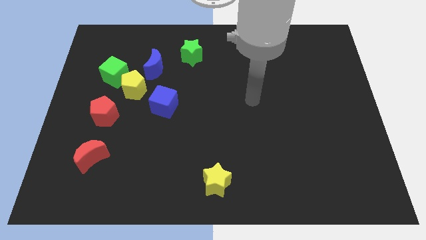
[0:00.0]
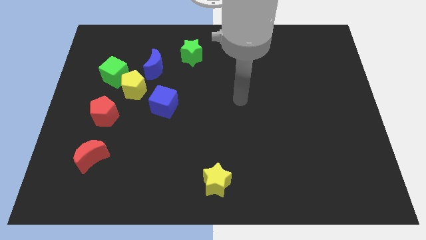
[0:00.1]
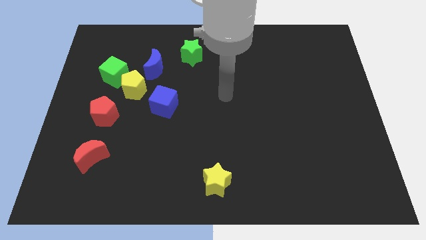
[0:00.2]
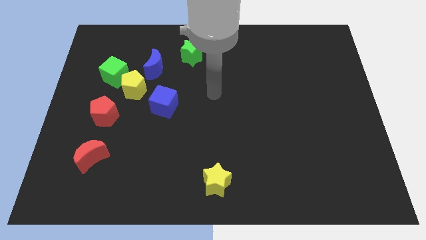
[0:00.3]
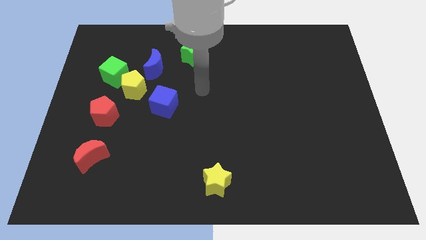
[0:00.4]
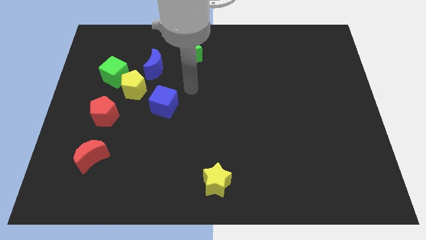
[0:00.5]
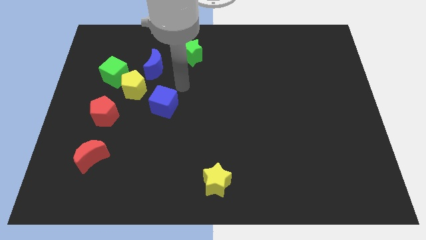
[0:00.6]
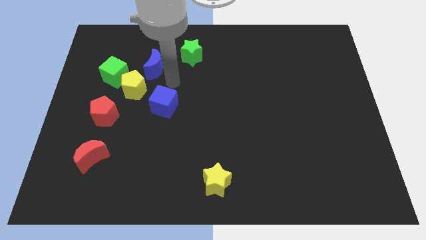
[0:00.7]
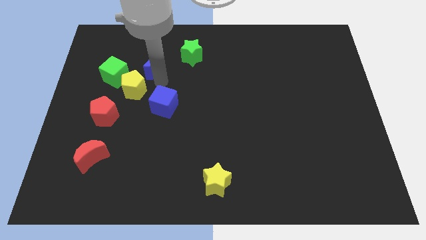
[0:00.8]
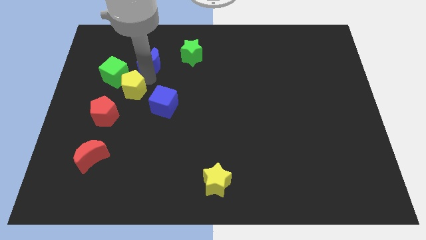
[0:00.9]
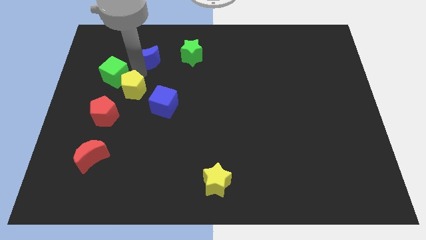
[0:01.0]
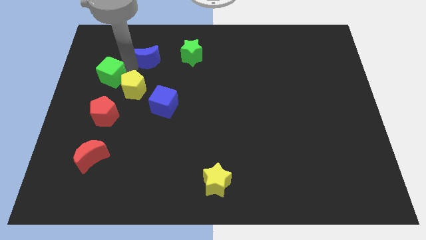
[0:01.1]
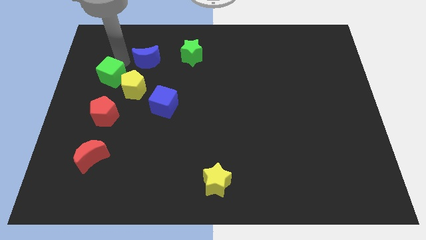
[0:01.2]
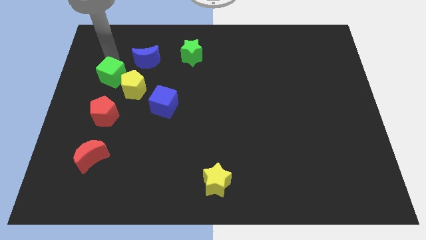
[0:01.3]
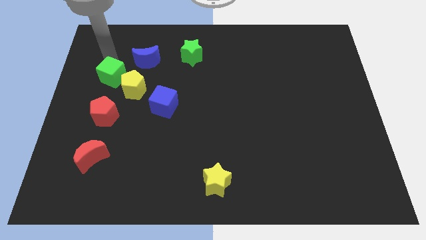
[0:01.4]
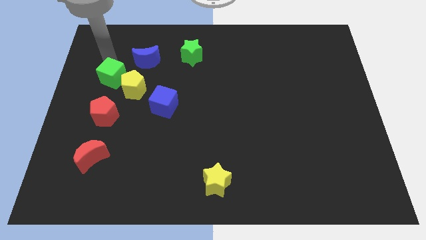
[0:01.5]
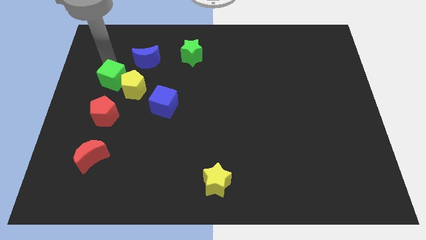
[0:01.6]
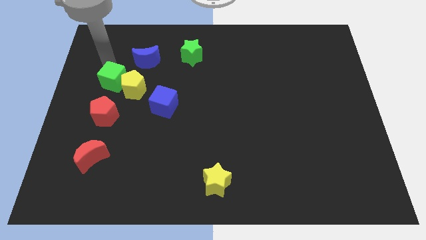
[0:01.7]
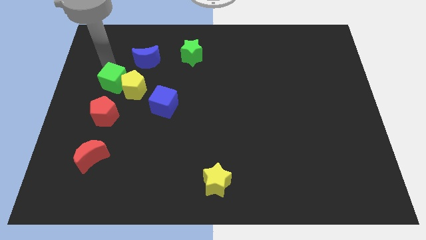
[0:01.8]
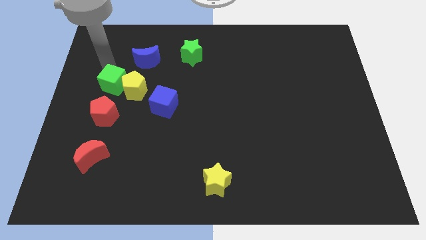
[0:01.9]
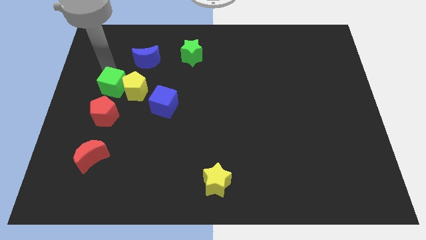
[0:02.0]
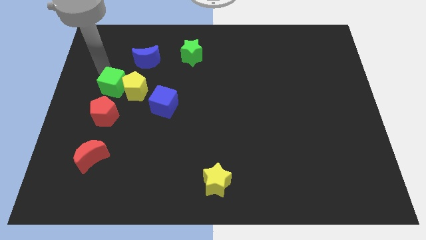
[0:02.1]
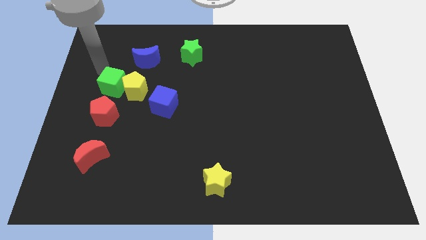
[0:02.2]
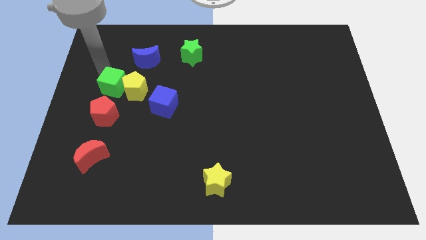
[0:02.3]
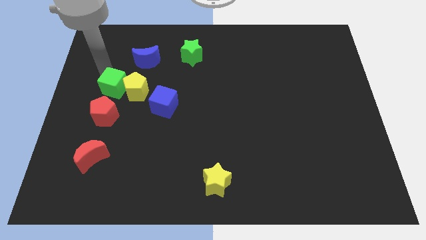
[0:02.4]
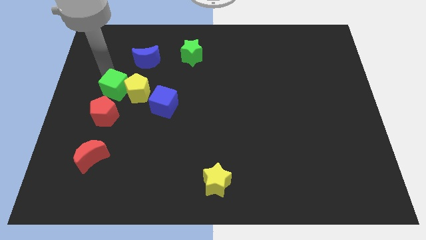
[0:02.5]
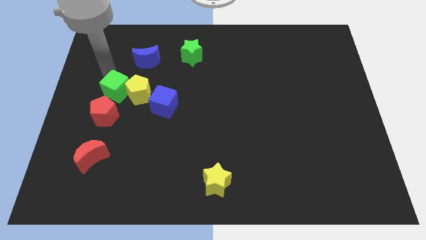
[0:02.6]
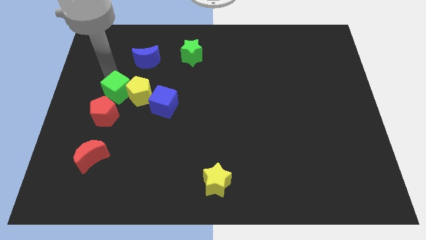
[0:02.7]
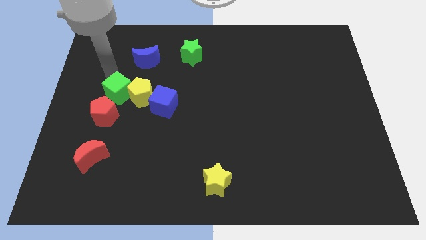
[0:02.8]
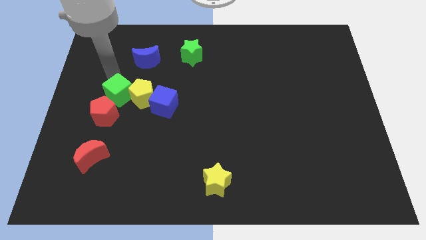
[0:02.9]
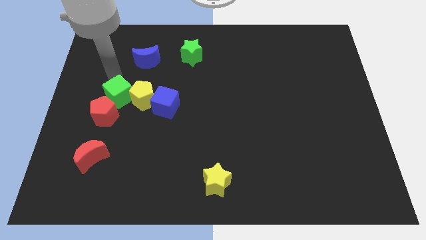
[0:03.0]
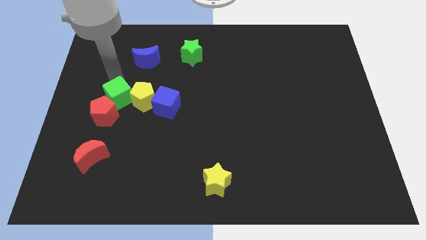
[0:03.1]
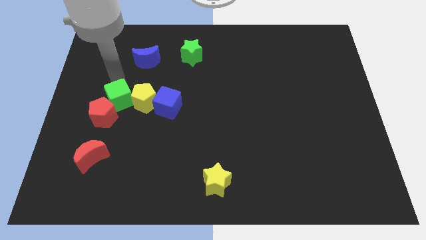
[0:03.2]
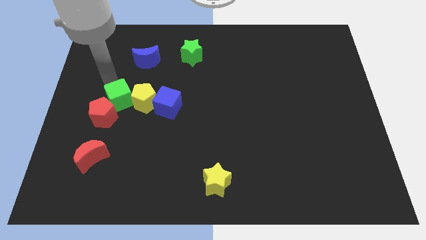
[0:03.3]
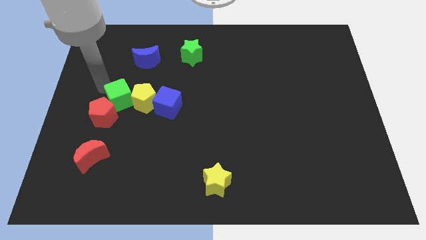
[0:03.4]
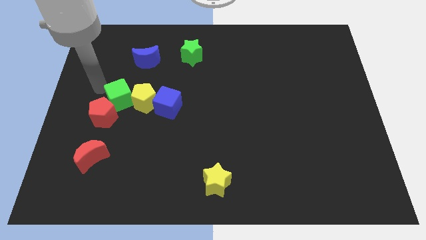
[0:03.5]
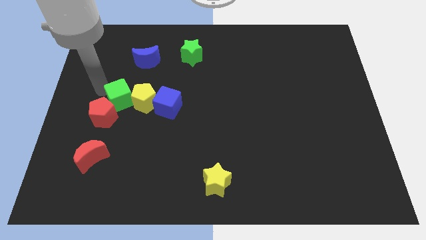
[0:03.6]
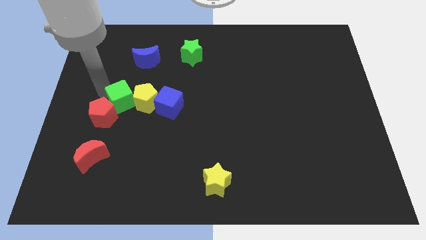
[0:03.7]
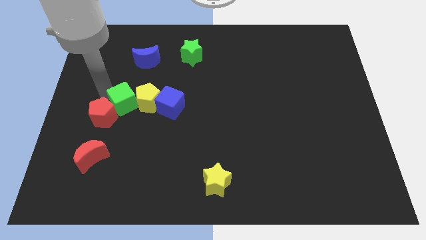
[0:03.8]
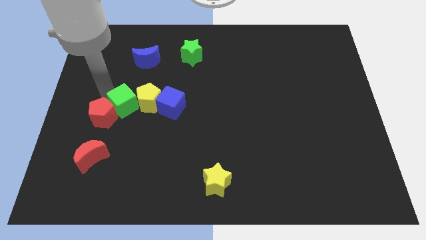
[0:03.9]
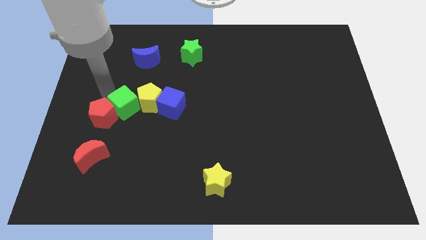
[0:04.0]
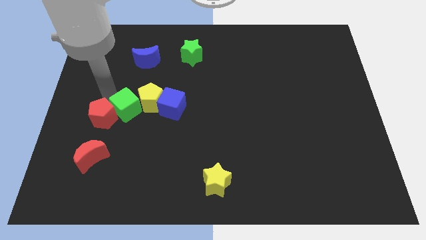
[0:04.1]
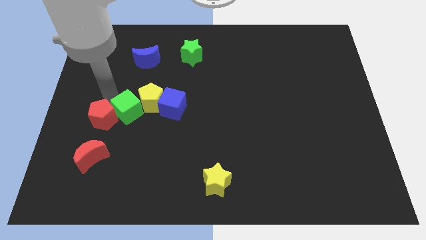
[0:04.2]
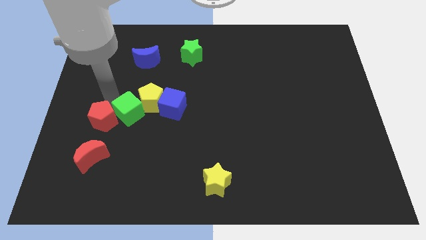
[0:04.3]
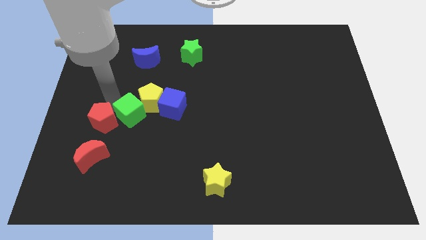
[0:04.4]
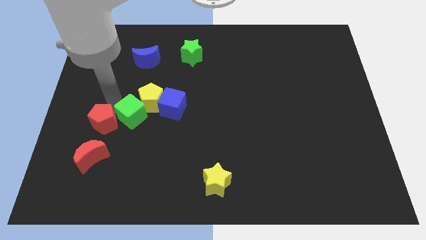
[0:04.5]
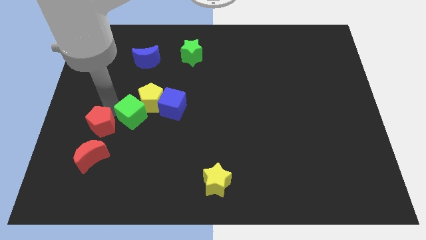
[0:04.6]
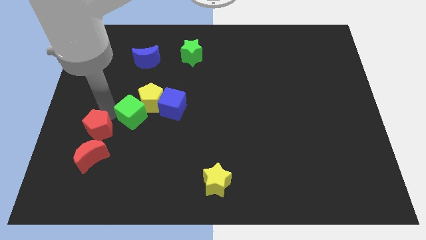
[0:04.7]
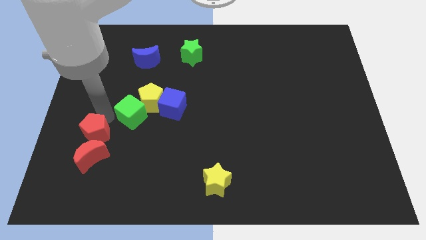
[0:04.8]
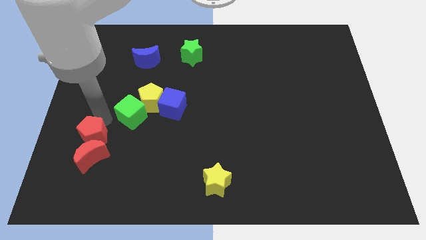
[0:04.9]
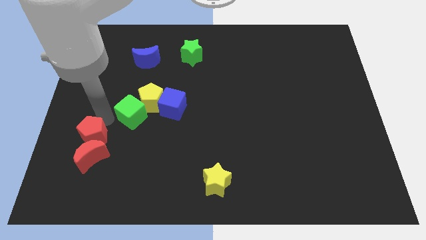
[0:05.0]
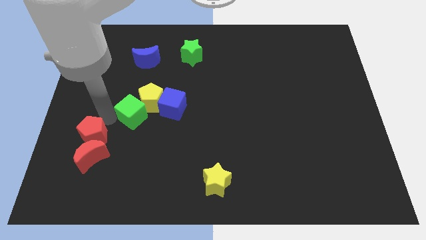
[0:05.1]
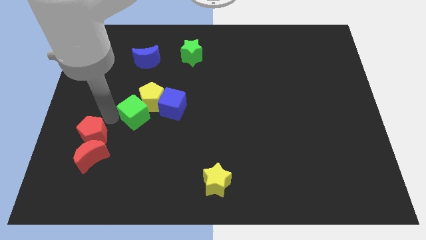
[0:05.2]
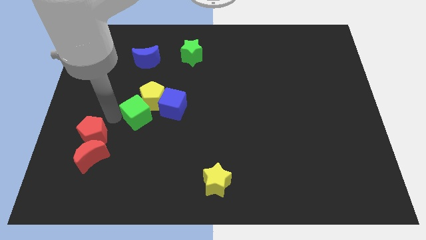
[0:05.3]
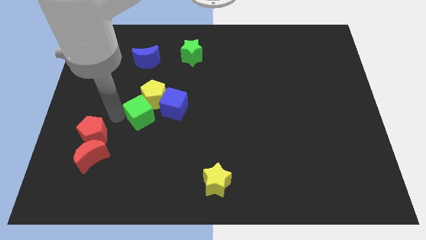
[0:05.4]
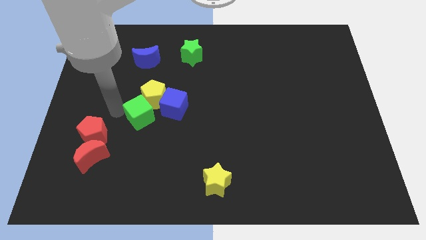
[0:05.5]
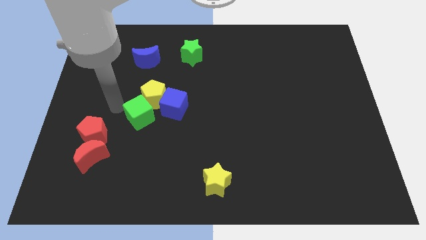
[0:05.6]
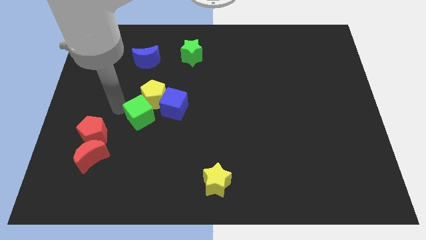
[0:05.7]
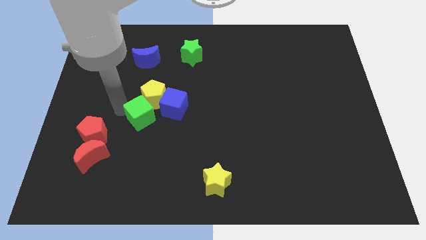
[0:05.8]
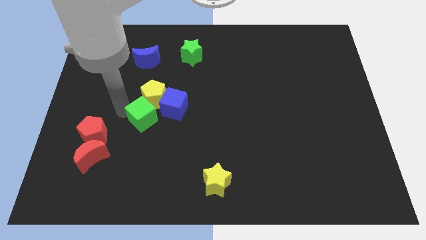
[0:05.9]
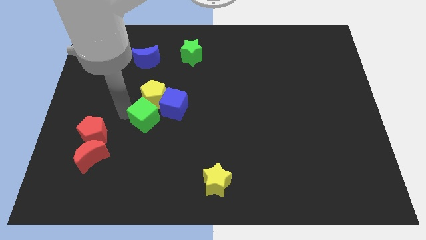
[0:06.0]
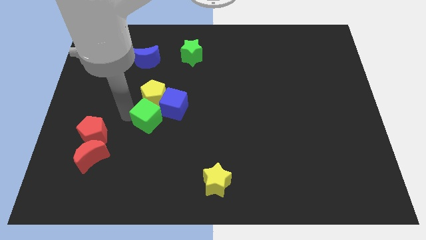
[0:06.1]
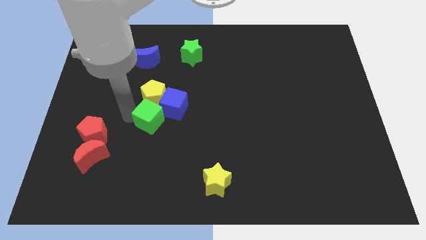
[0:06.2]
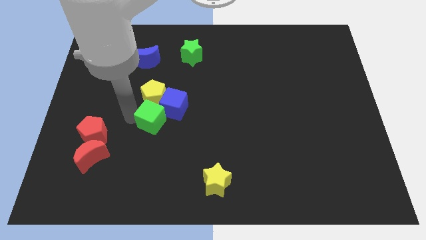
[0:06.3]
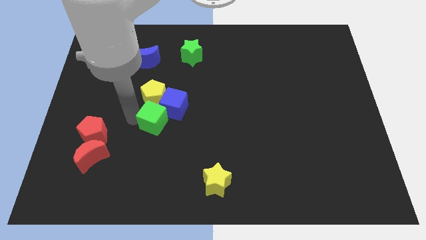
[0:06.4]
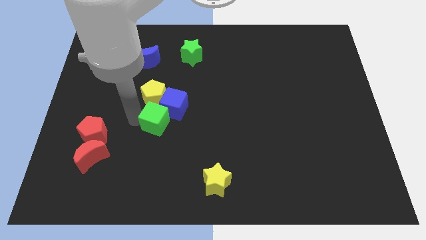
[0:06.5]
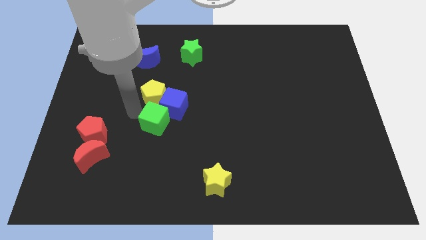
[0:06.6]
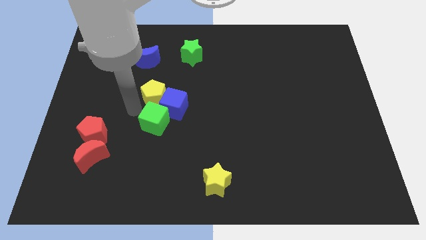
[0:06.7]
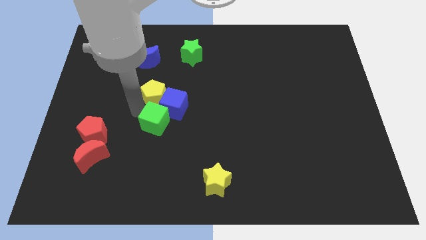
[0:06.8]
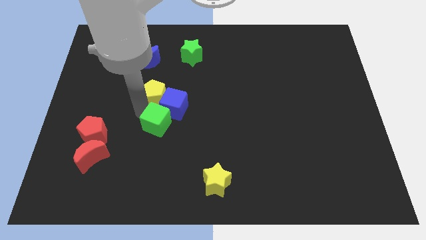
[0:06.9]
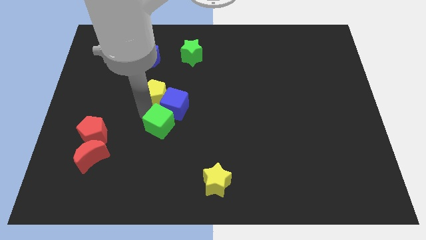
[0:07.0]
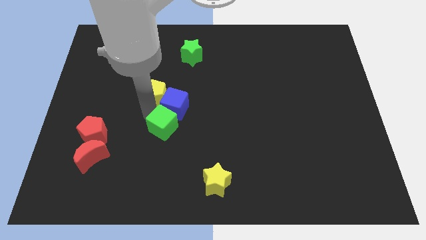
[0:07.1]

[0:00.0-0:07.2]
slide the green cube downwards and right diagonally

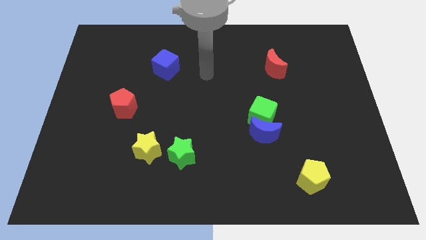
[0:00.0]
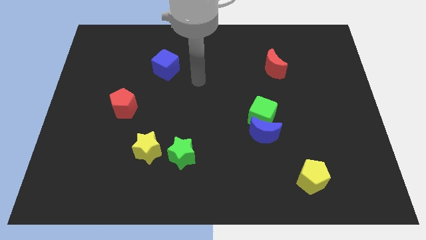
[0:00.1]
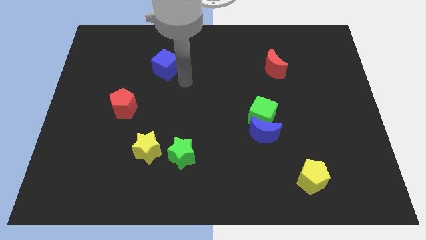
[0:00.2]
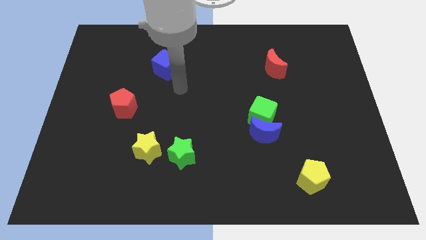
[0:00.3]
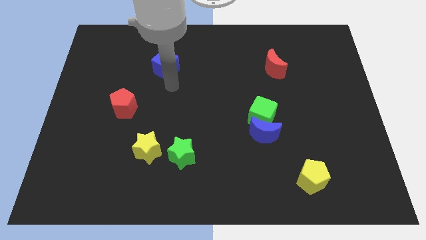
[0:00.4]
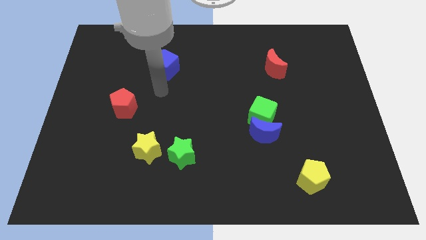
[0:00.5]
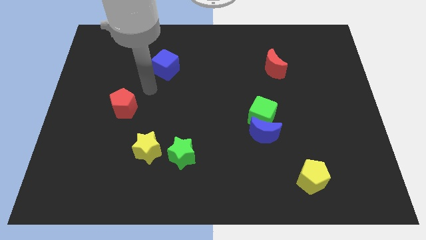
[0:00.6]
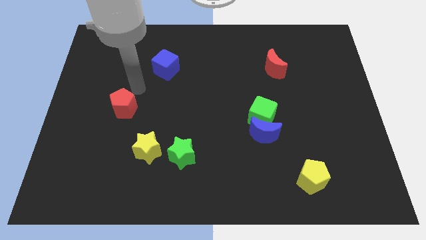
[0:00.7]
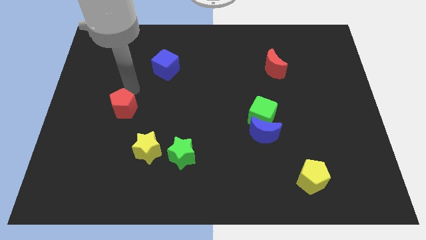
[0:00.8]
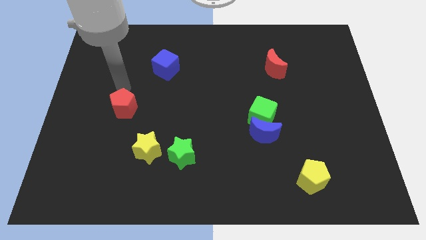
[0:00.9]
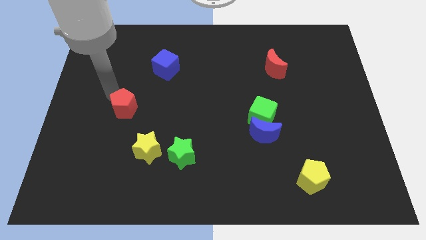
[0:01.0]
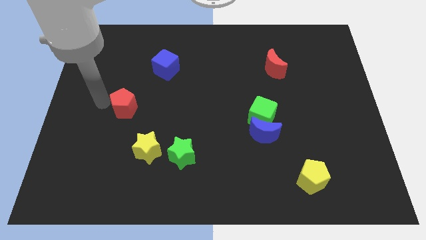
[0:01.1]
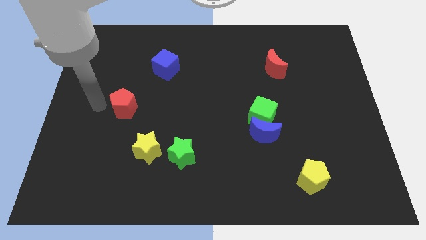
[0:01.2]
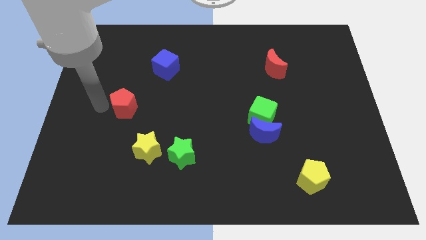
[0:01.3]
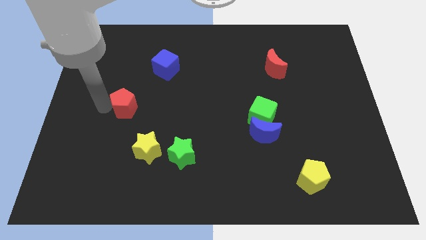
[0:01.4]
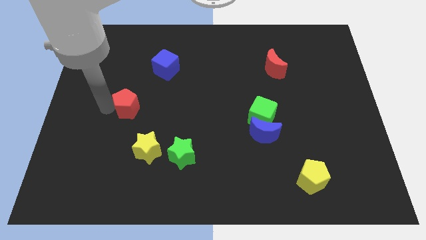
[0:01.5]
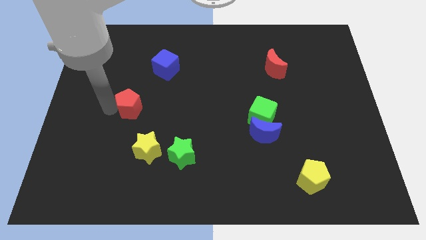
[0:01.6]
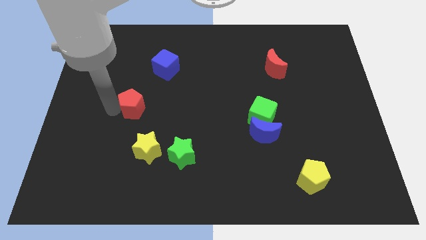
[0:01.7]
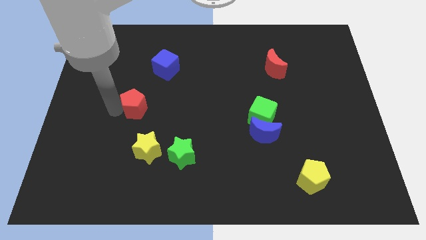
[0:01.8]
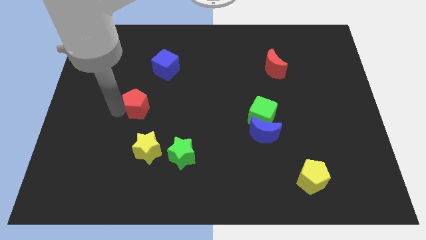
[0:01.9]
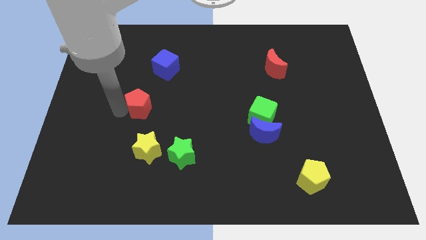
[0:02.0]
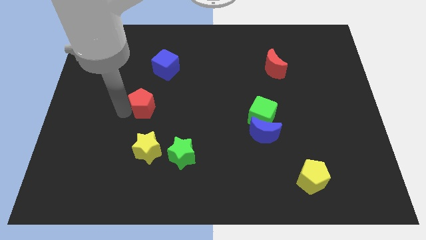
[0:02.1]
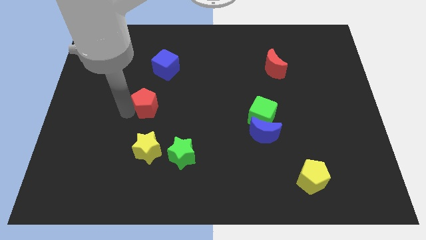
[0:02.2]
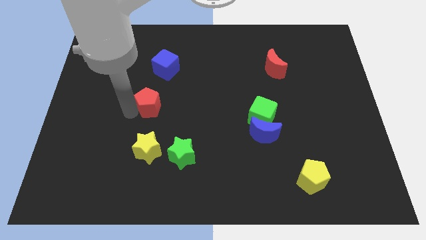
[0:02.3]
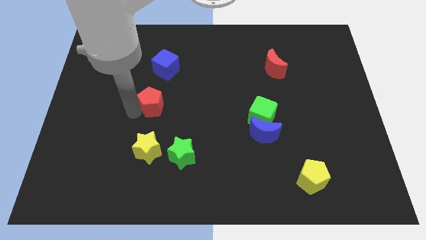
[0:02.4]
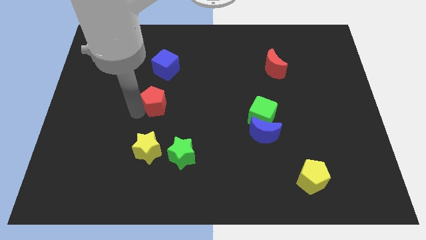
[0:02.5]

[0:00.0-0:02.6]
slide the red pentagon somewhat to the right
